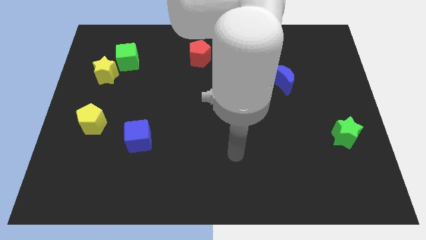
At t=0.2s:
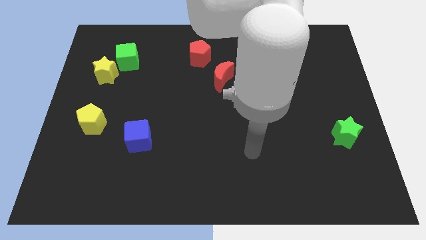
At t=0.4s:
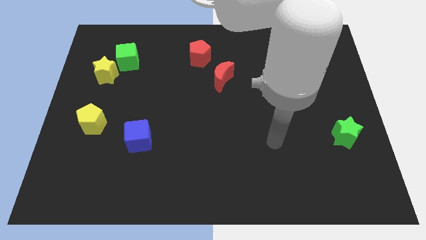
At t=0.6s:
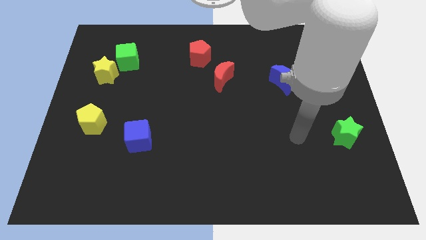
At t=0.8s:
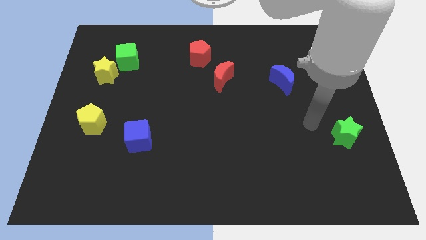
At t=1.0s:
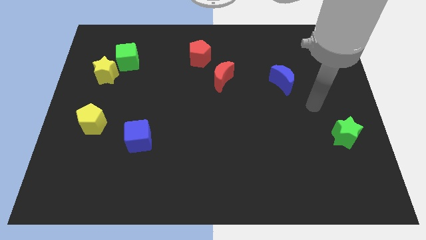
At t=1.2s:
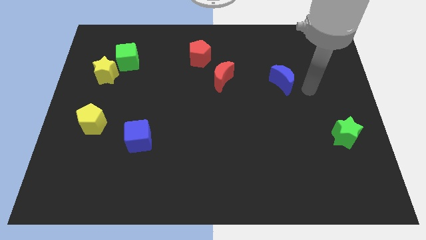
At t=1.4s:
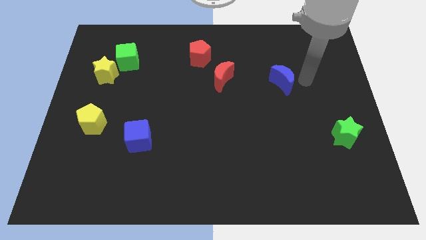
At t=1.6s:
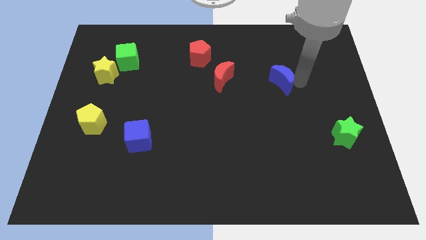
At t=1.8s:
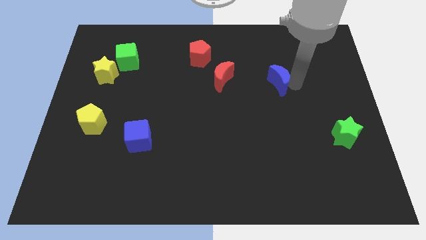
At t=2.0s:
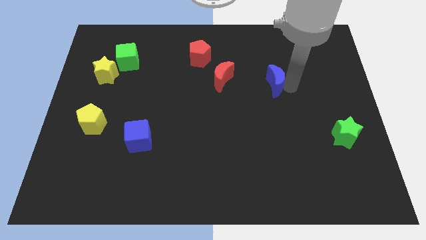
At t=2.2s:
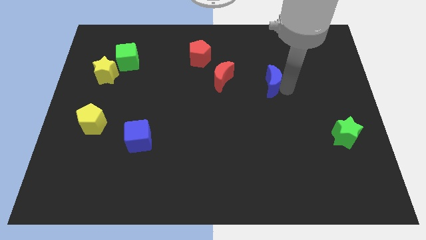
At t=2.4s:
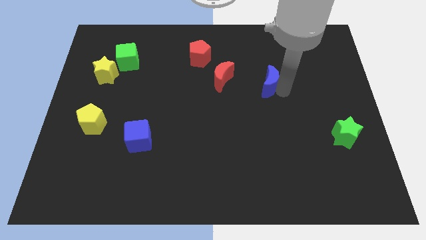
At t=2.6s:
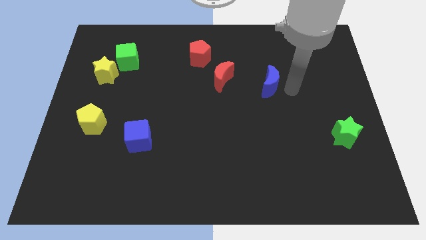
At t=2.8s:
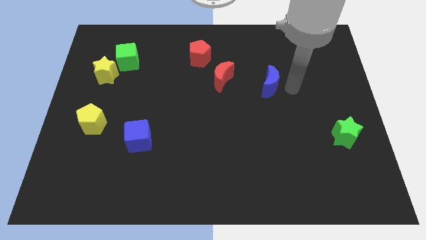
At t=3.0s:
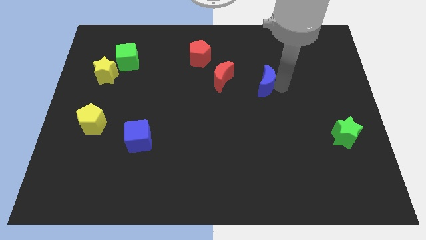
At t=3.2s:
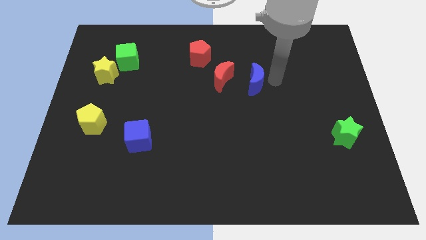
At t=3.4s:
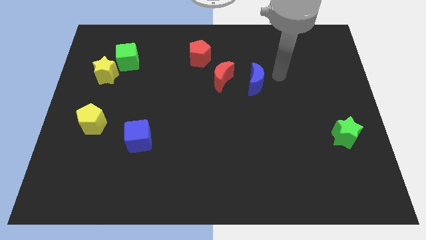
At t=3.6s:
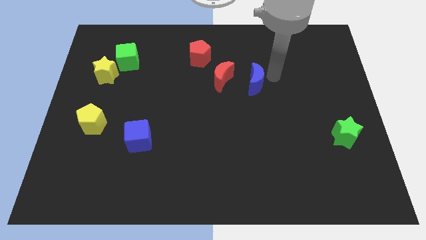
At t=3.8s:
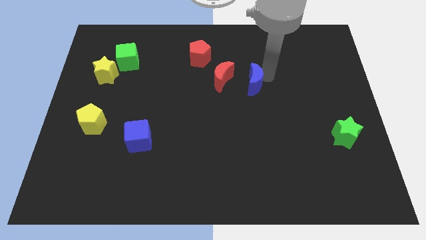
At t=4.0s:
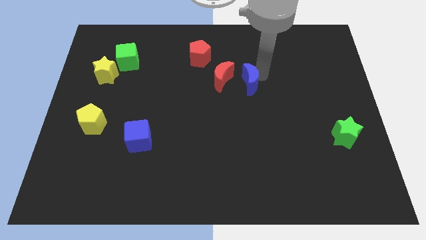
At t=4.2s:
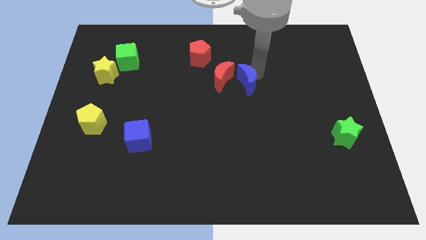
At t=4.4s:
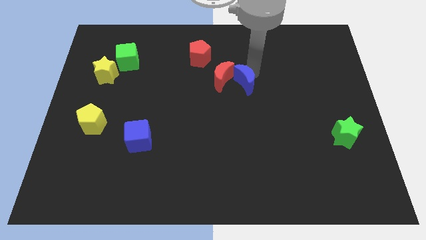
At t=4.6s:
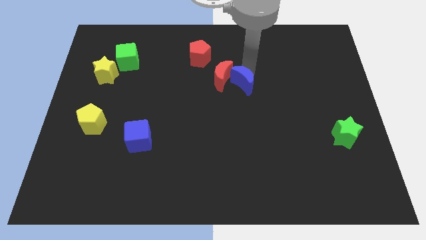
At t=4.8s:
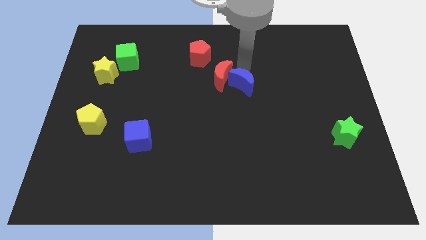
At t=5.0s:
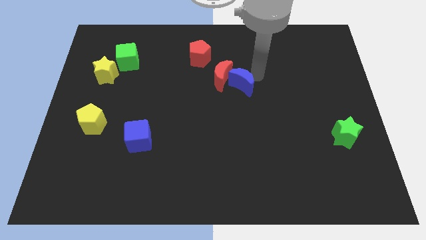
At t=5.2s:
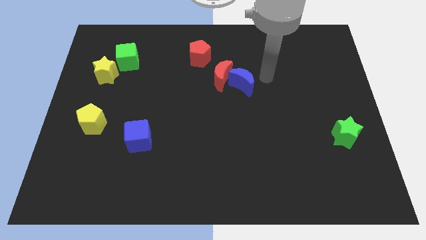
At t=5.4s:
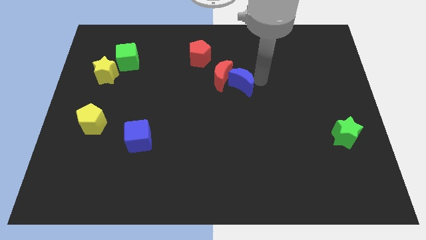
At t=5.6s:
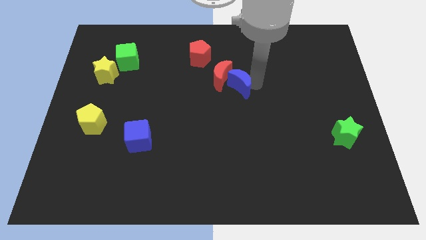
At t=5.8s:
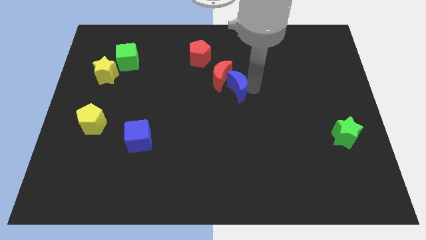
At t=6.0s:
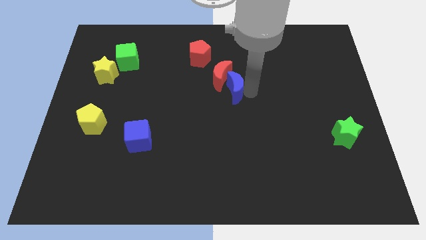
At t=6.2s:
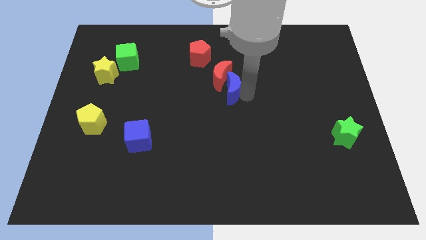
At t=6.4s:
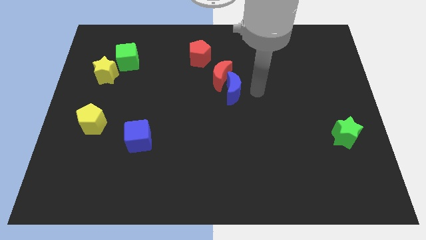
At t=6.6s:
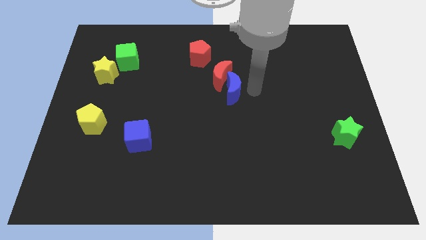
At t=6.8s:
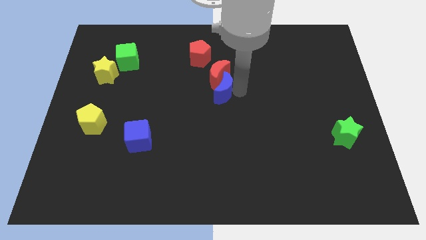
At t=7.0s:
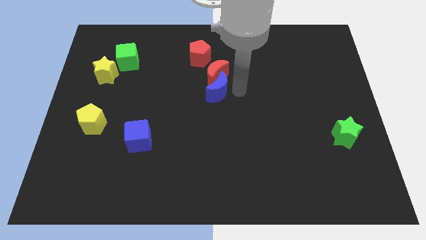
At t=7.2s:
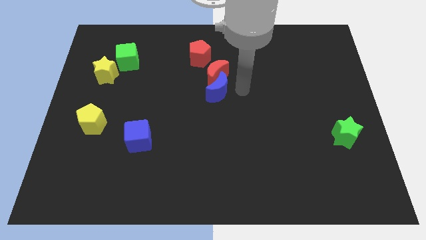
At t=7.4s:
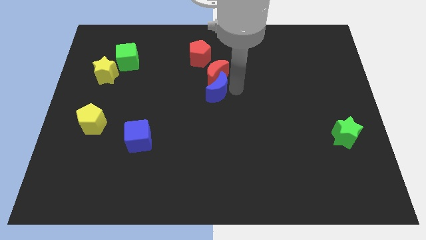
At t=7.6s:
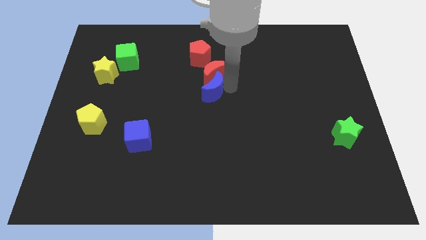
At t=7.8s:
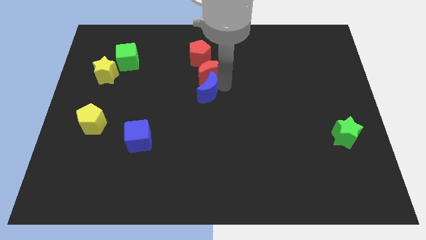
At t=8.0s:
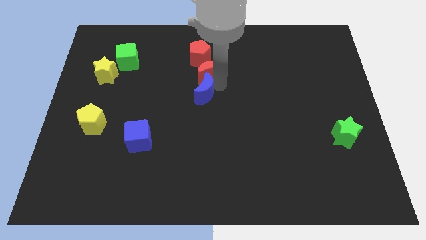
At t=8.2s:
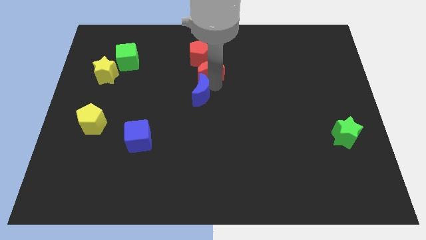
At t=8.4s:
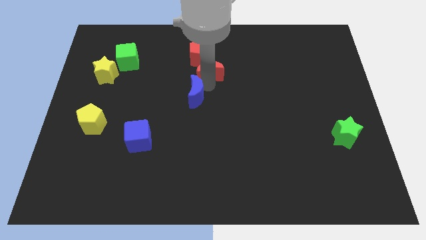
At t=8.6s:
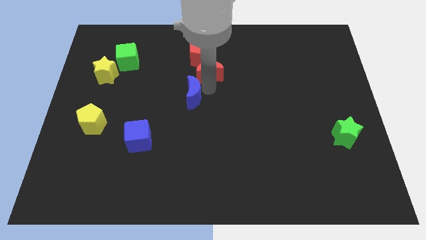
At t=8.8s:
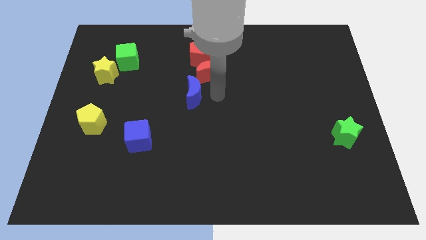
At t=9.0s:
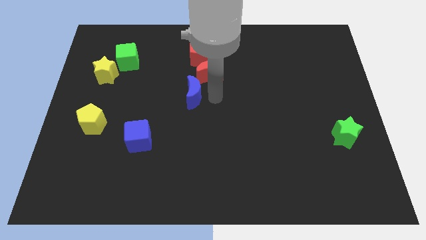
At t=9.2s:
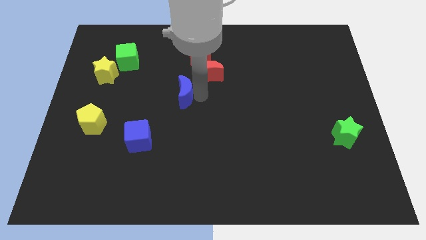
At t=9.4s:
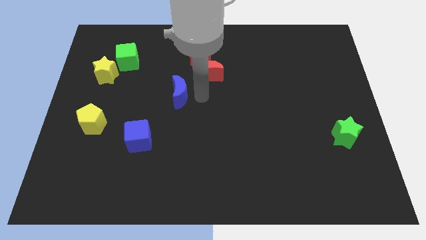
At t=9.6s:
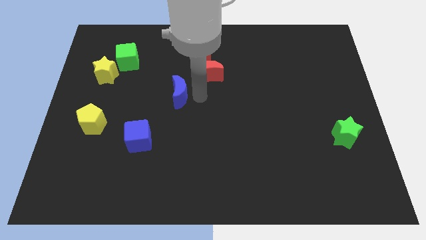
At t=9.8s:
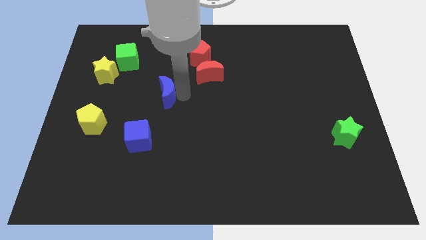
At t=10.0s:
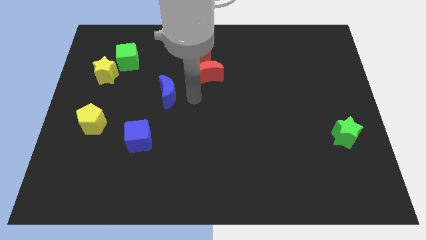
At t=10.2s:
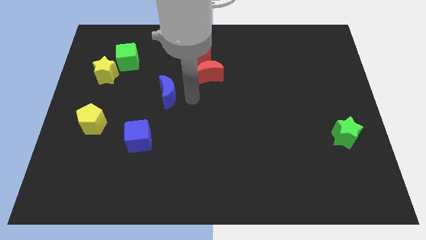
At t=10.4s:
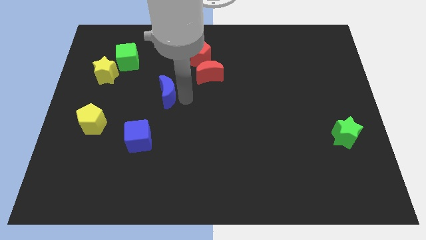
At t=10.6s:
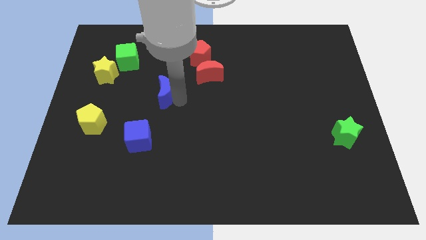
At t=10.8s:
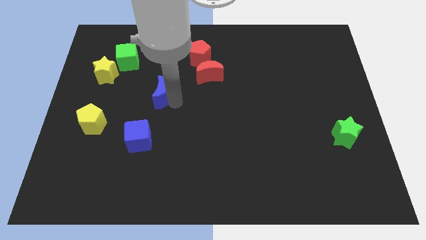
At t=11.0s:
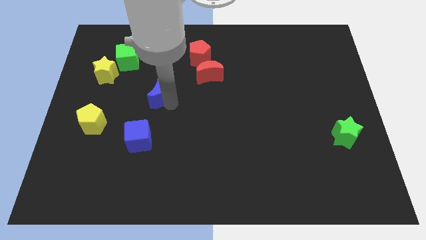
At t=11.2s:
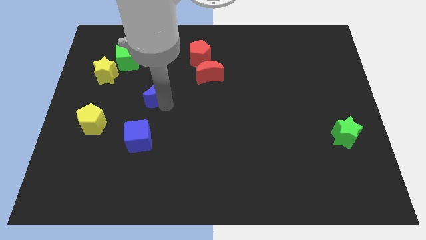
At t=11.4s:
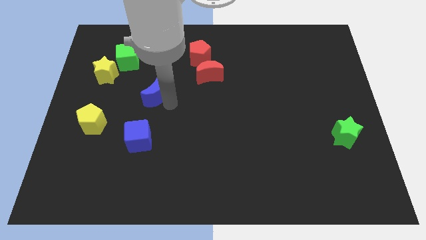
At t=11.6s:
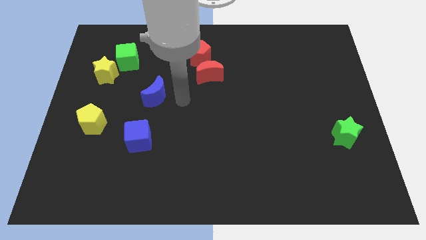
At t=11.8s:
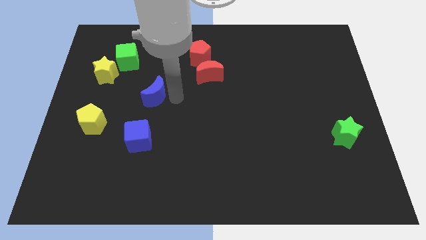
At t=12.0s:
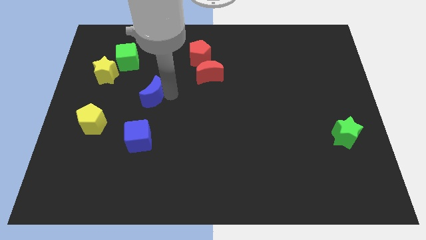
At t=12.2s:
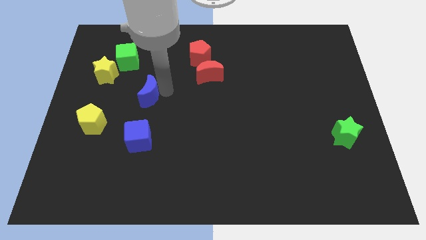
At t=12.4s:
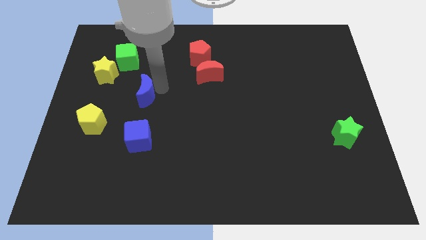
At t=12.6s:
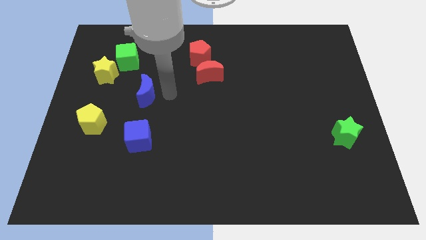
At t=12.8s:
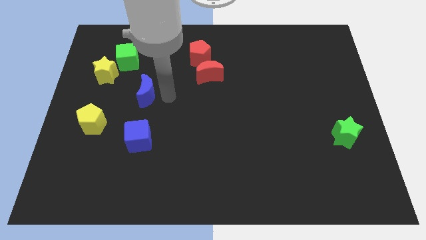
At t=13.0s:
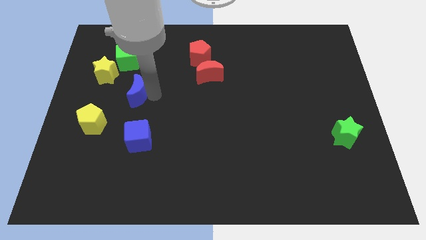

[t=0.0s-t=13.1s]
put the blue moon to the bottom side of the green cube

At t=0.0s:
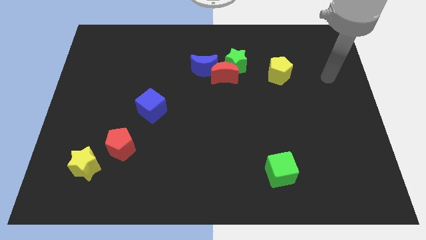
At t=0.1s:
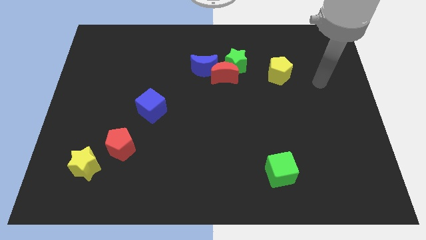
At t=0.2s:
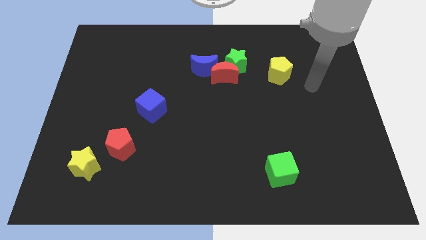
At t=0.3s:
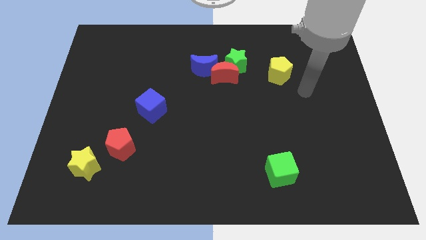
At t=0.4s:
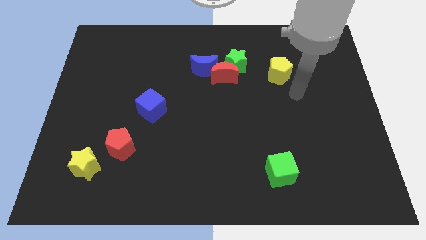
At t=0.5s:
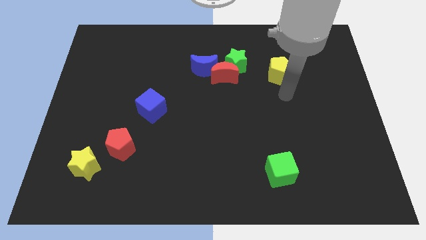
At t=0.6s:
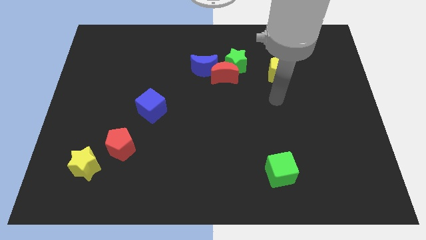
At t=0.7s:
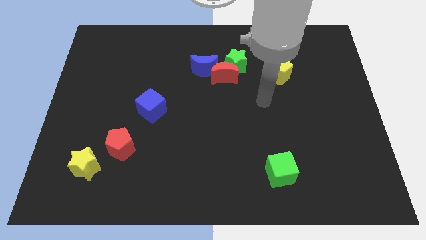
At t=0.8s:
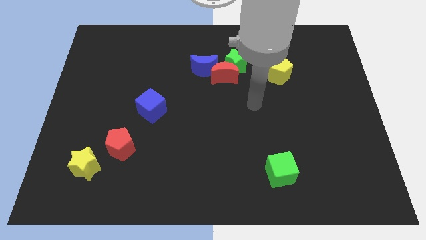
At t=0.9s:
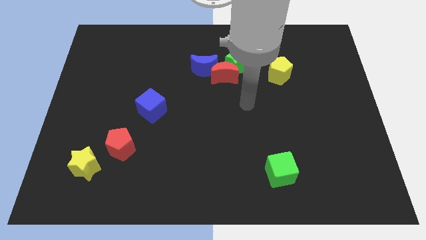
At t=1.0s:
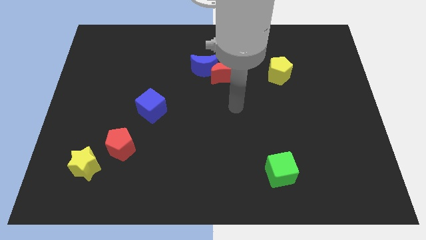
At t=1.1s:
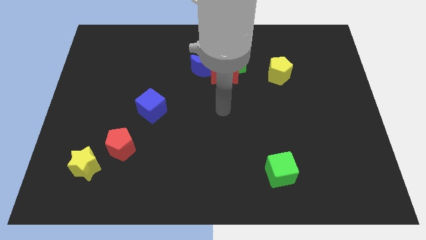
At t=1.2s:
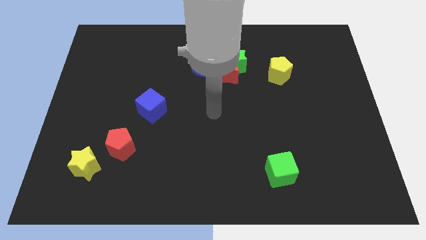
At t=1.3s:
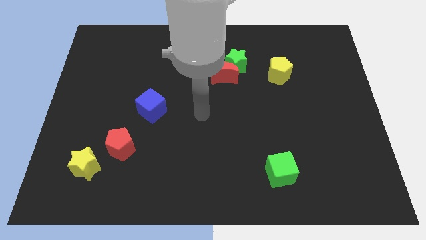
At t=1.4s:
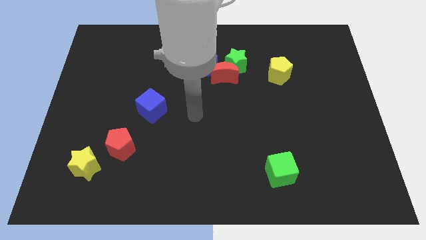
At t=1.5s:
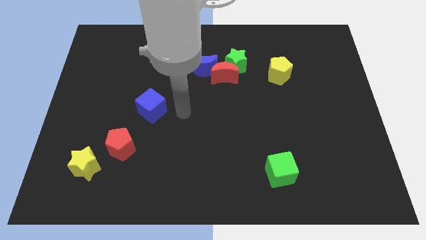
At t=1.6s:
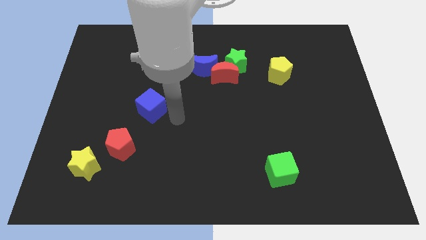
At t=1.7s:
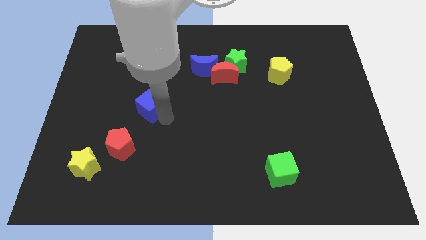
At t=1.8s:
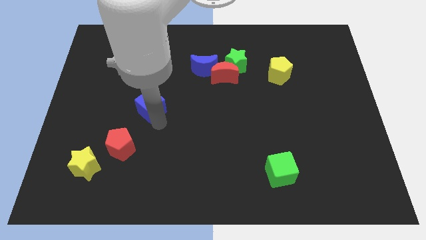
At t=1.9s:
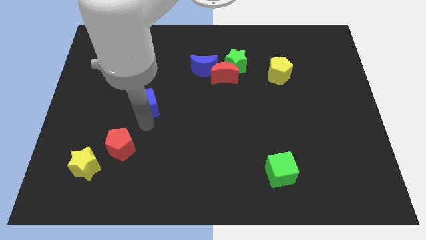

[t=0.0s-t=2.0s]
put the red pentagon to the bottom side of the blue cube
